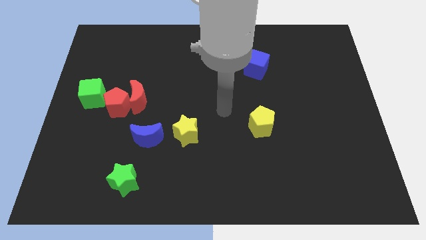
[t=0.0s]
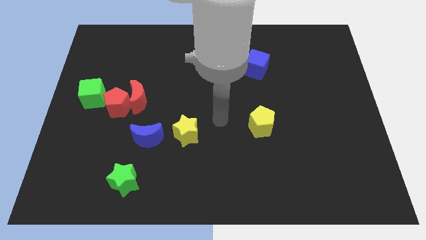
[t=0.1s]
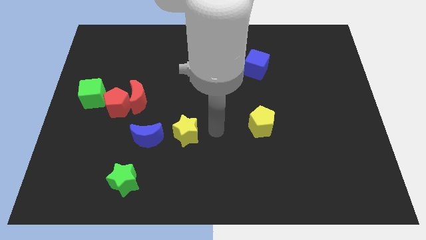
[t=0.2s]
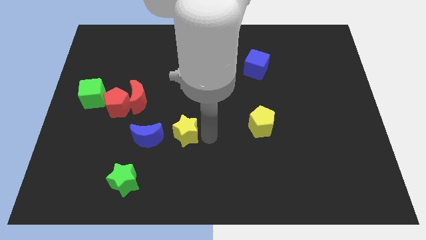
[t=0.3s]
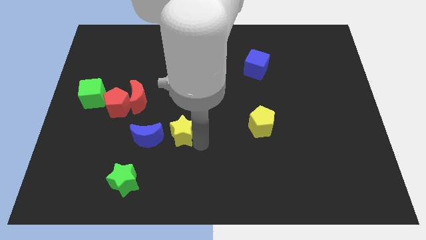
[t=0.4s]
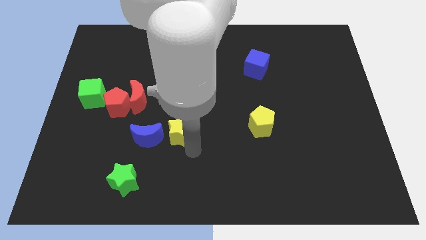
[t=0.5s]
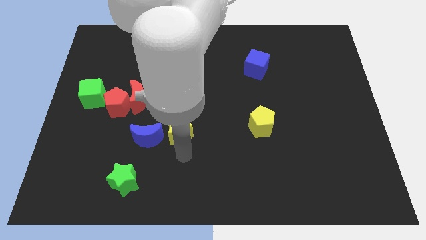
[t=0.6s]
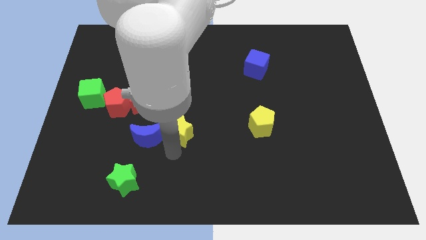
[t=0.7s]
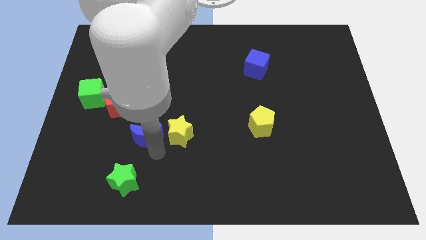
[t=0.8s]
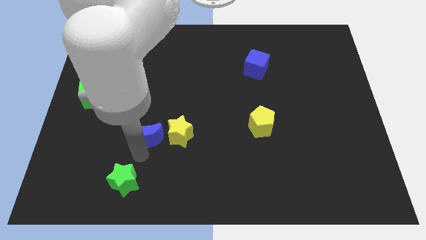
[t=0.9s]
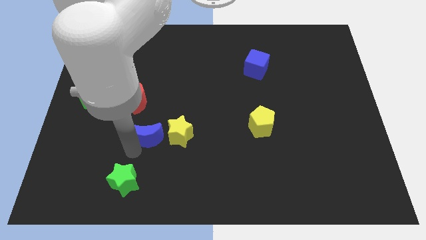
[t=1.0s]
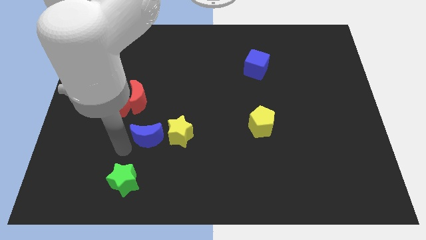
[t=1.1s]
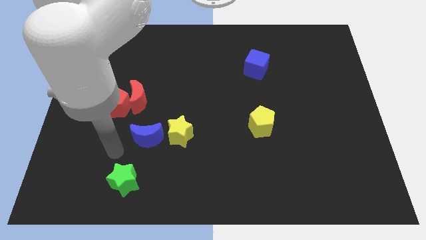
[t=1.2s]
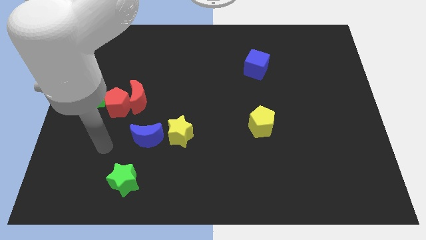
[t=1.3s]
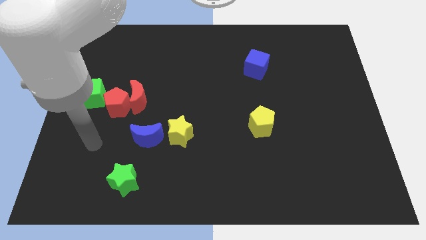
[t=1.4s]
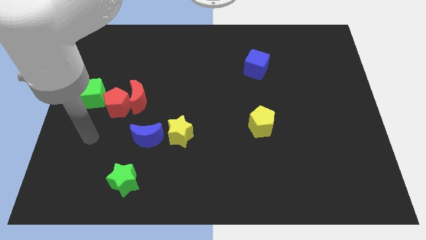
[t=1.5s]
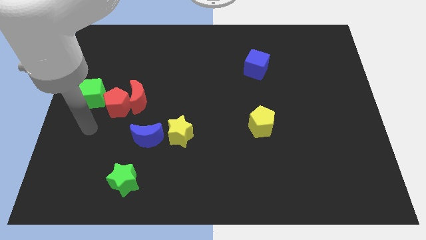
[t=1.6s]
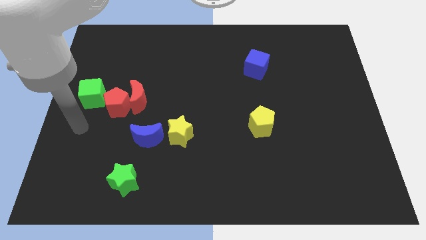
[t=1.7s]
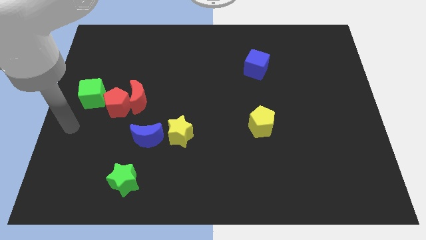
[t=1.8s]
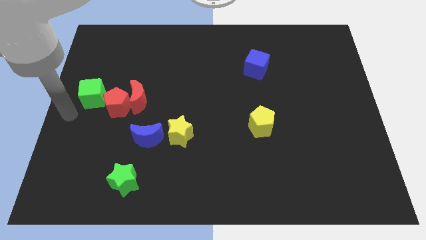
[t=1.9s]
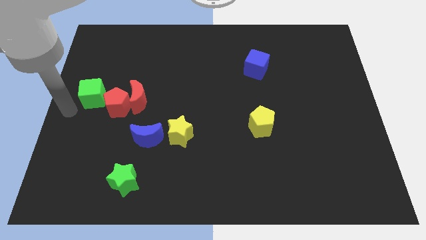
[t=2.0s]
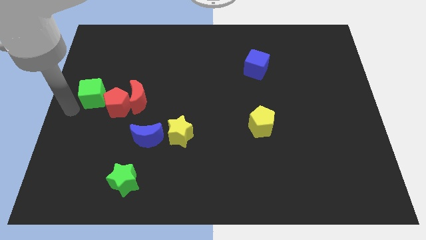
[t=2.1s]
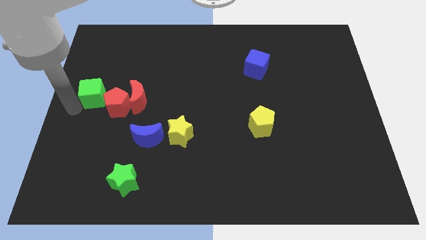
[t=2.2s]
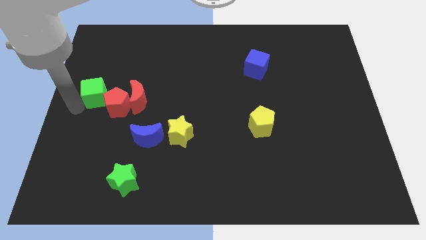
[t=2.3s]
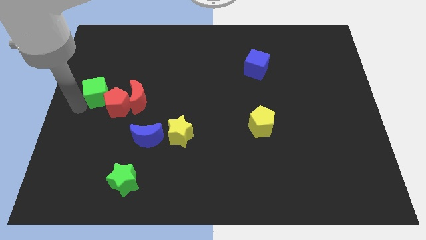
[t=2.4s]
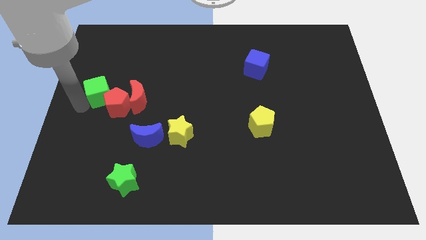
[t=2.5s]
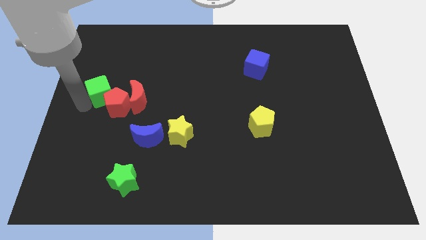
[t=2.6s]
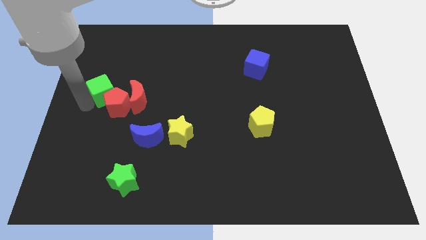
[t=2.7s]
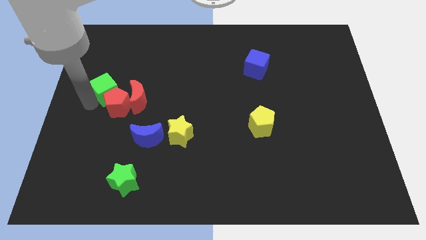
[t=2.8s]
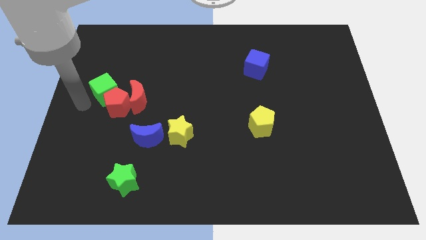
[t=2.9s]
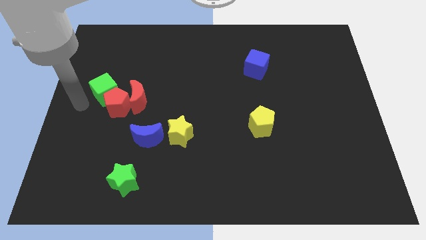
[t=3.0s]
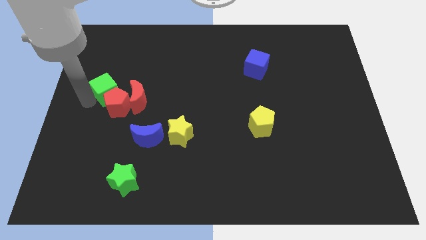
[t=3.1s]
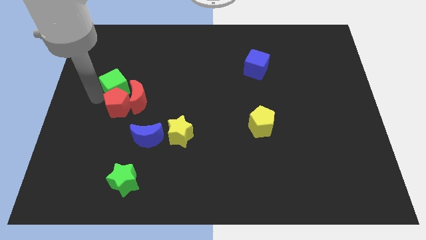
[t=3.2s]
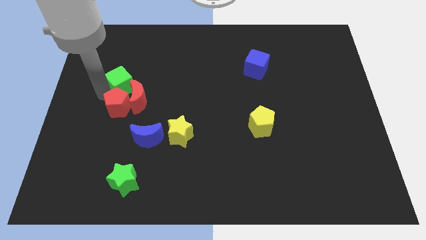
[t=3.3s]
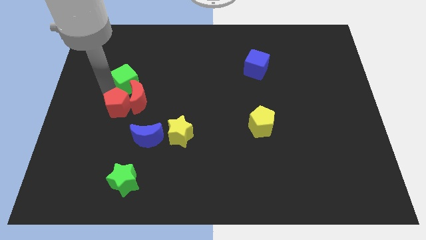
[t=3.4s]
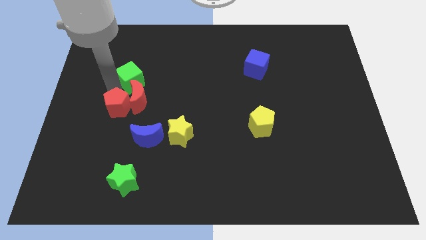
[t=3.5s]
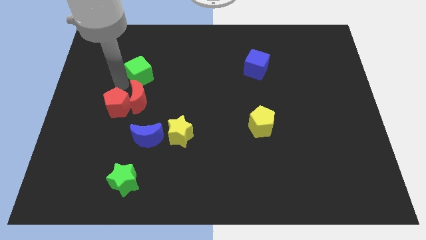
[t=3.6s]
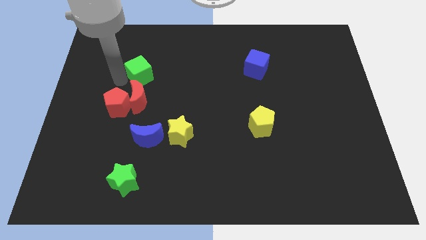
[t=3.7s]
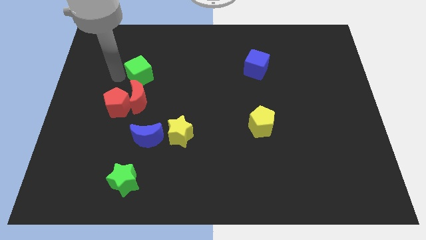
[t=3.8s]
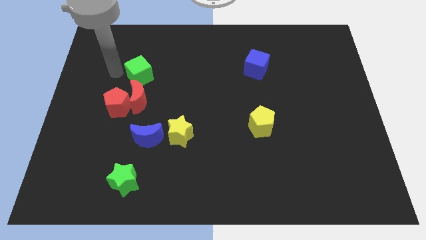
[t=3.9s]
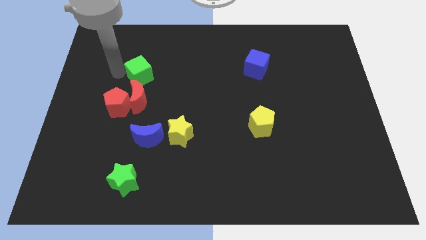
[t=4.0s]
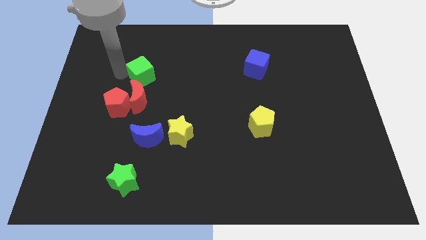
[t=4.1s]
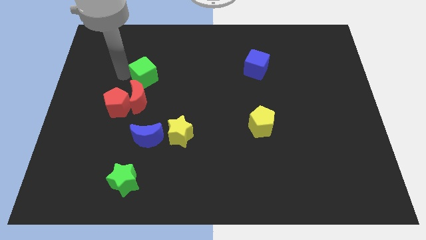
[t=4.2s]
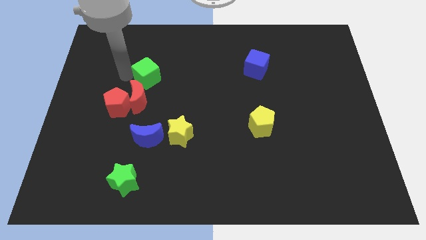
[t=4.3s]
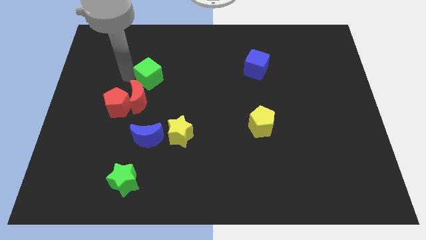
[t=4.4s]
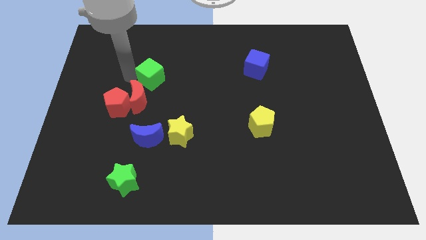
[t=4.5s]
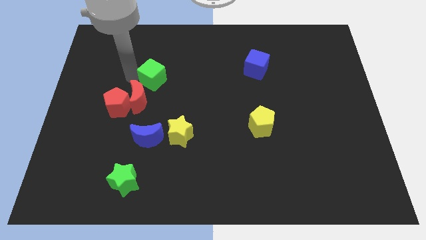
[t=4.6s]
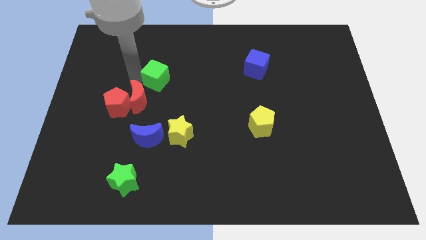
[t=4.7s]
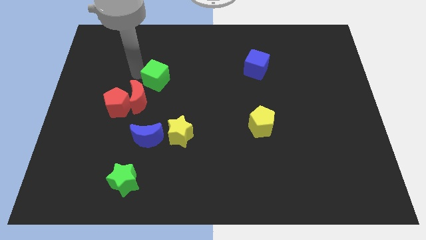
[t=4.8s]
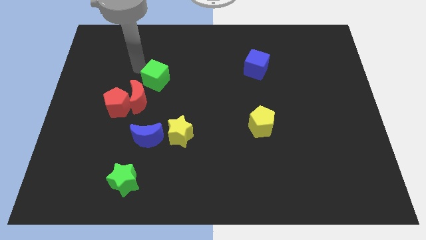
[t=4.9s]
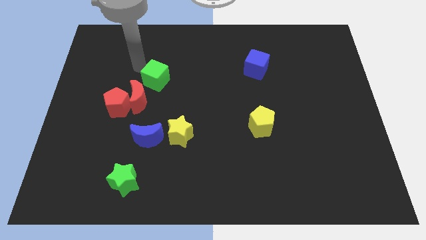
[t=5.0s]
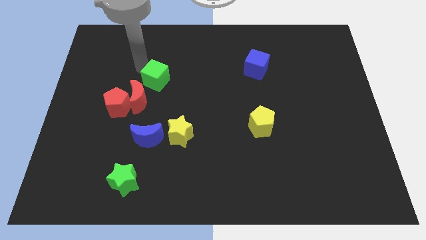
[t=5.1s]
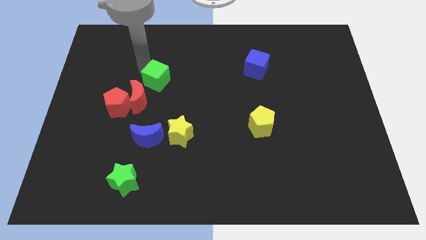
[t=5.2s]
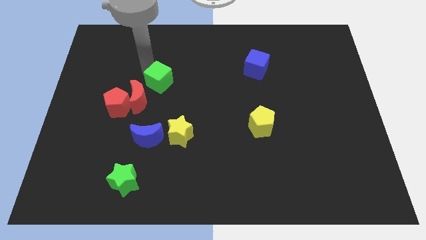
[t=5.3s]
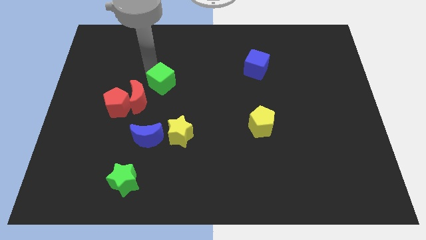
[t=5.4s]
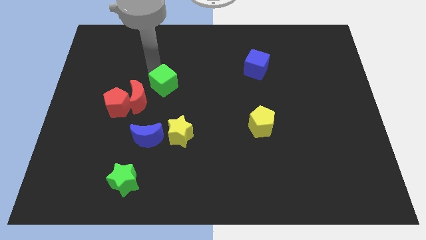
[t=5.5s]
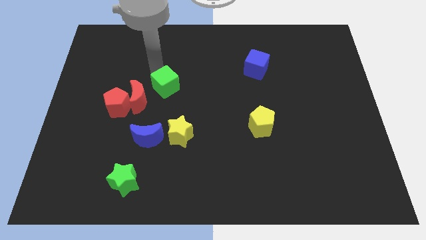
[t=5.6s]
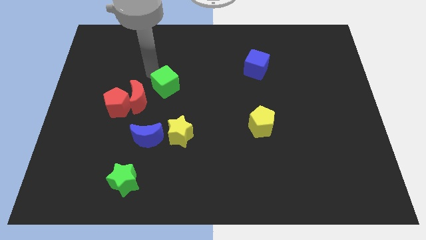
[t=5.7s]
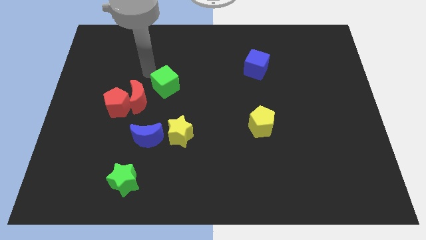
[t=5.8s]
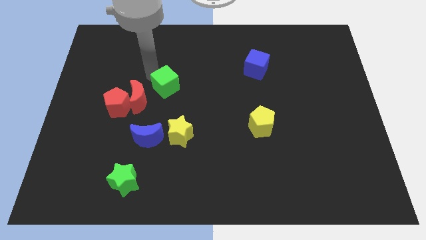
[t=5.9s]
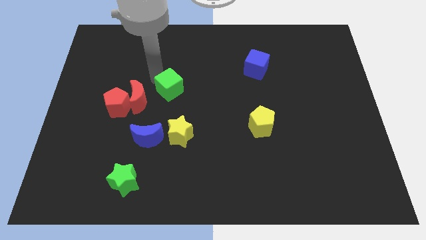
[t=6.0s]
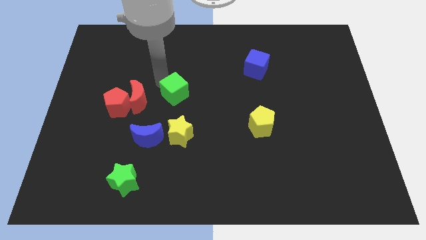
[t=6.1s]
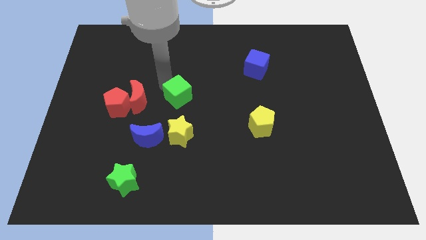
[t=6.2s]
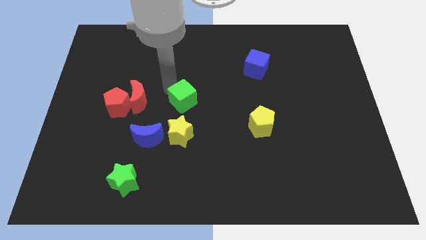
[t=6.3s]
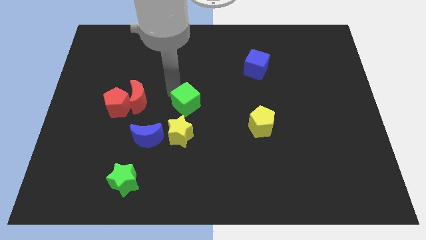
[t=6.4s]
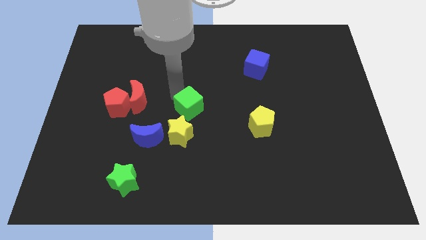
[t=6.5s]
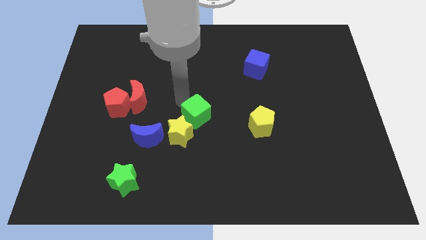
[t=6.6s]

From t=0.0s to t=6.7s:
slide the green cube to the left of the yellow pentagon
